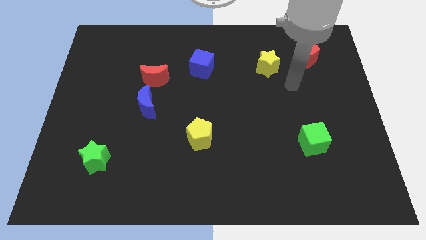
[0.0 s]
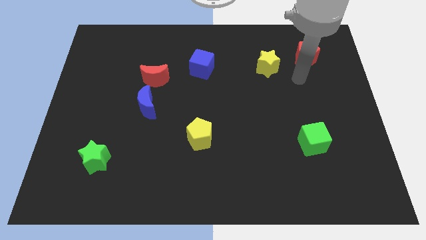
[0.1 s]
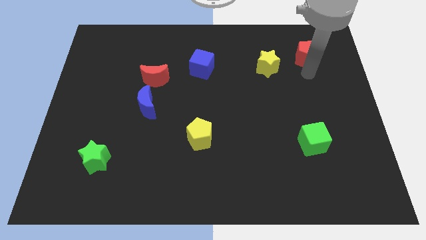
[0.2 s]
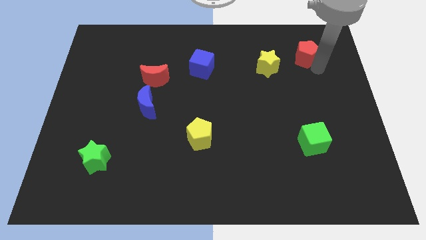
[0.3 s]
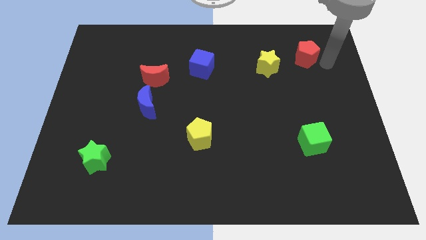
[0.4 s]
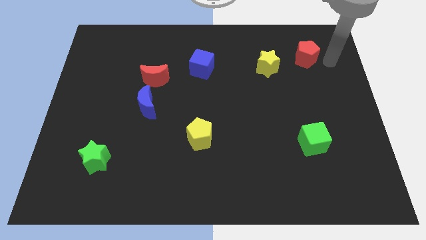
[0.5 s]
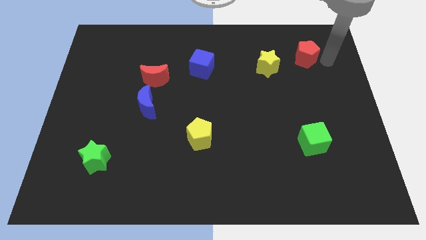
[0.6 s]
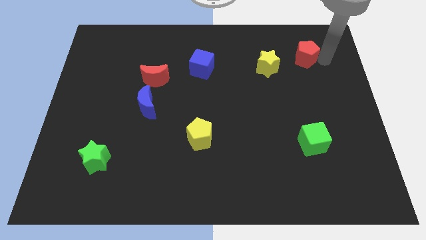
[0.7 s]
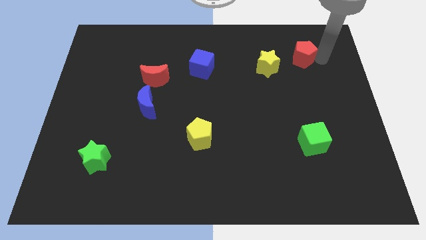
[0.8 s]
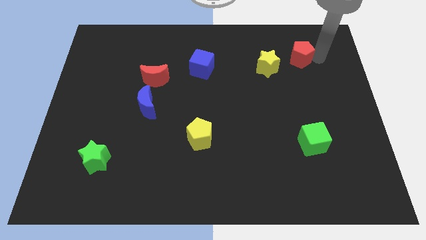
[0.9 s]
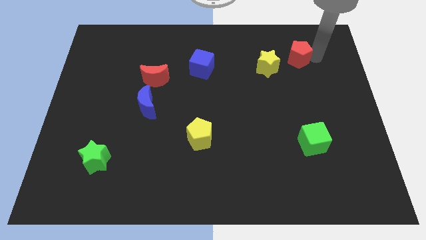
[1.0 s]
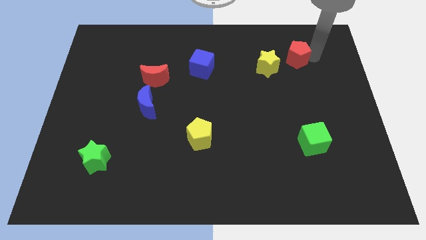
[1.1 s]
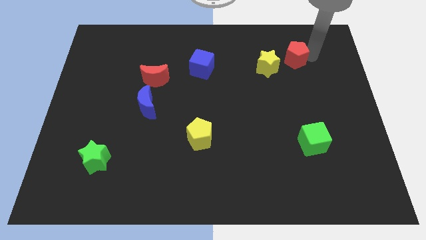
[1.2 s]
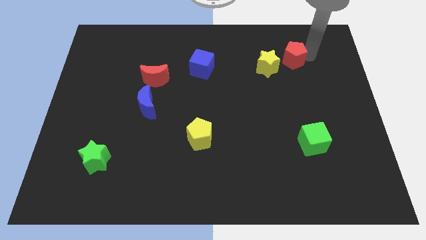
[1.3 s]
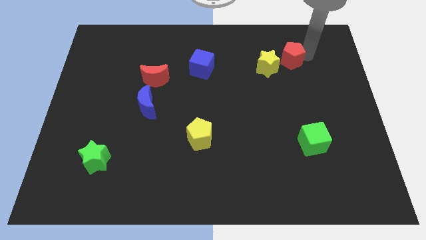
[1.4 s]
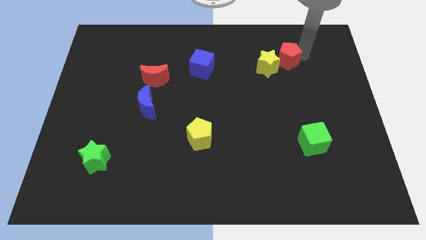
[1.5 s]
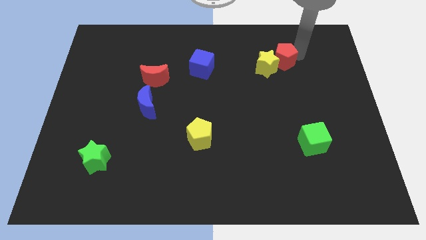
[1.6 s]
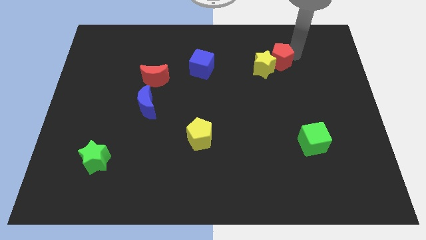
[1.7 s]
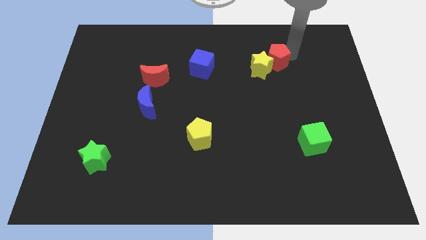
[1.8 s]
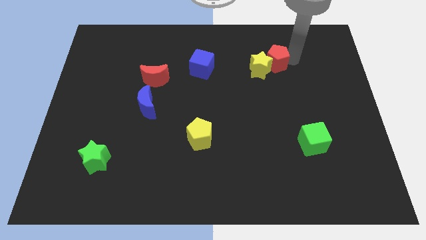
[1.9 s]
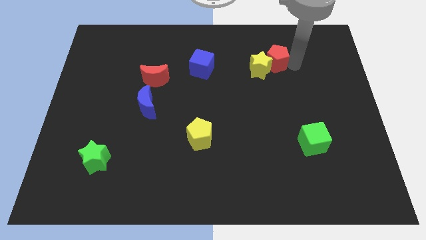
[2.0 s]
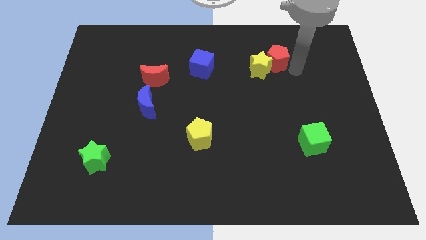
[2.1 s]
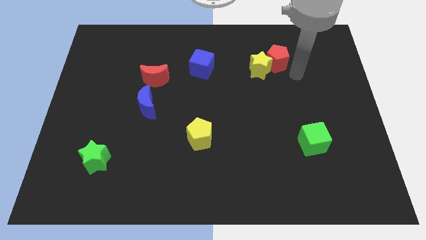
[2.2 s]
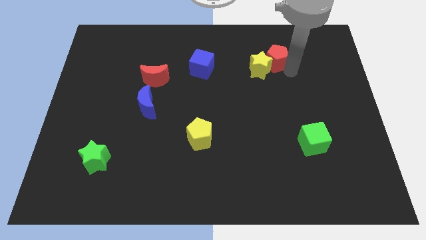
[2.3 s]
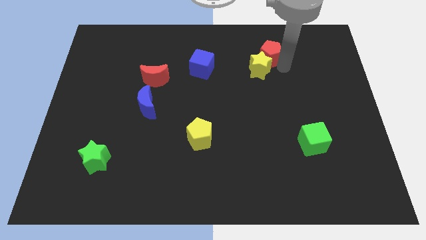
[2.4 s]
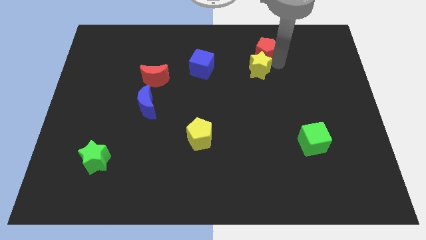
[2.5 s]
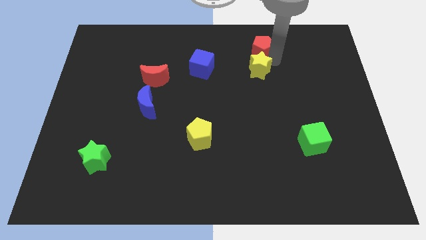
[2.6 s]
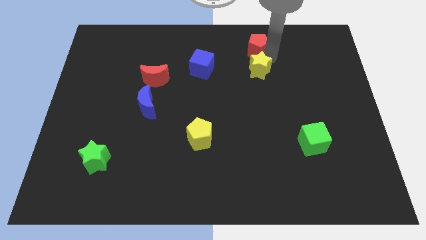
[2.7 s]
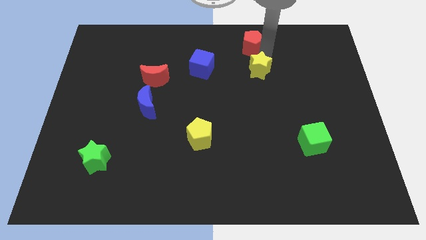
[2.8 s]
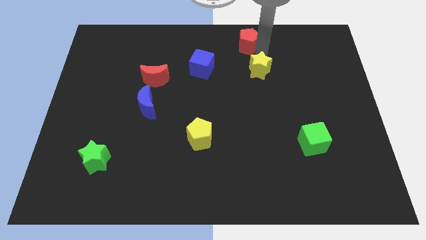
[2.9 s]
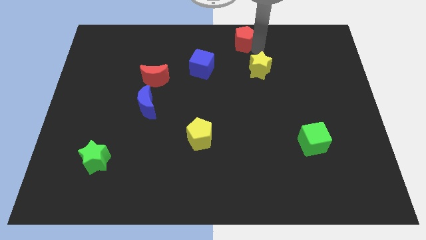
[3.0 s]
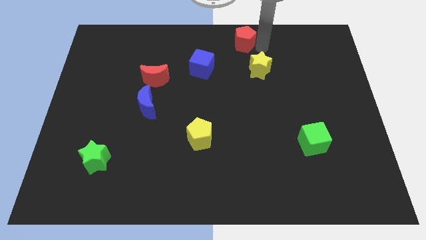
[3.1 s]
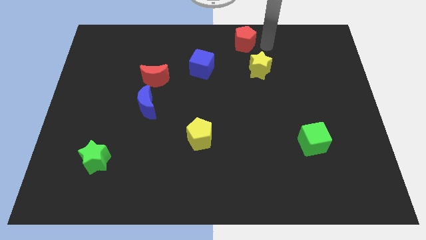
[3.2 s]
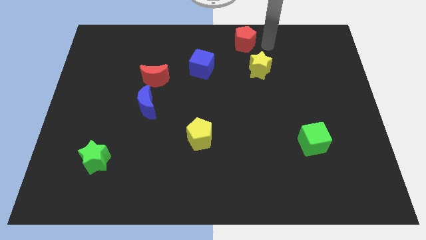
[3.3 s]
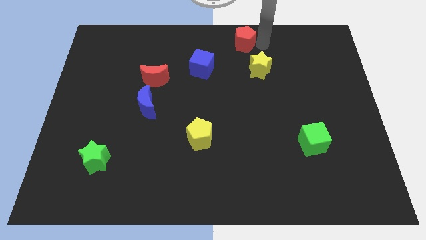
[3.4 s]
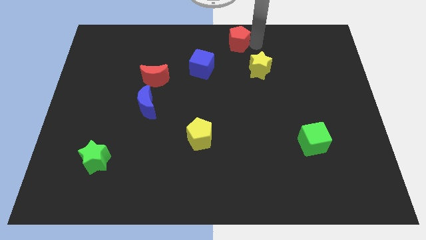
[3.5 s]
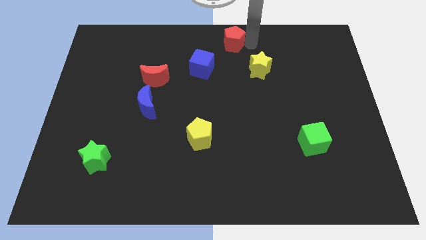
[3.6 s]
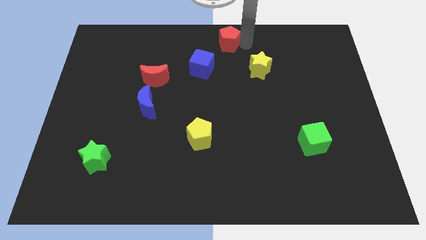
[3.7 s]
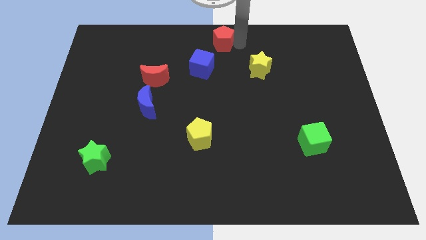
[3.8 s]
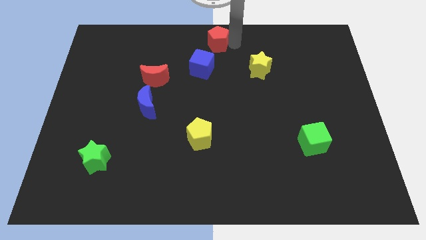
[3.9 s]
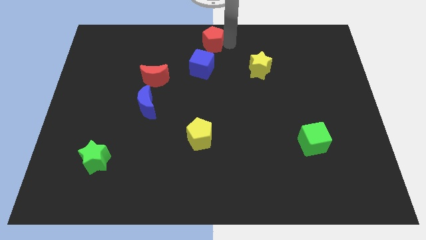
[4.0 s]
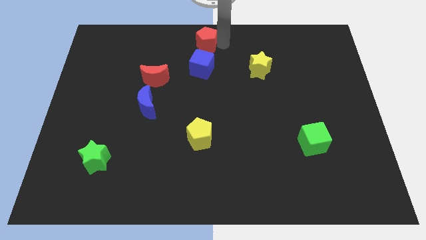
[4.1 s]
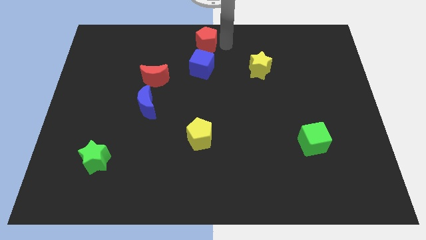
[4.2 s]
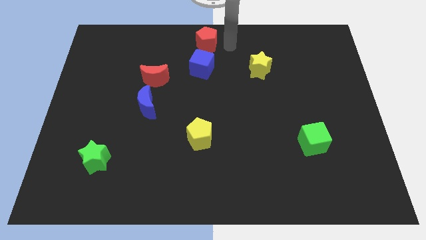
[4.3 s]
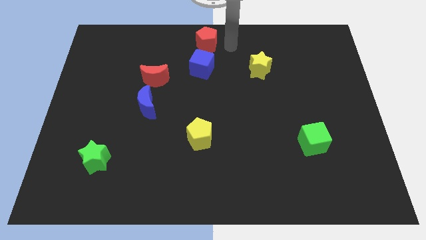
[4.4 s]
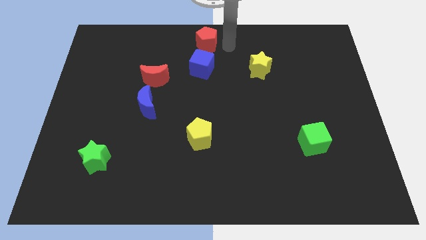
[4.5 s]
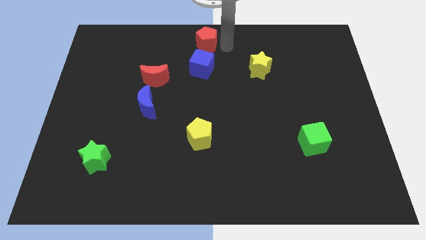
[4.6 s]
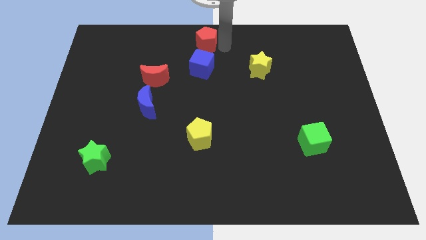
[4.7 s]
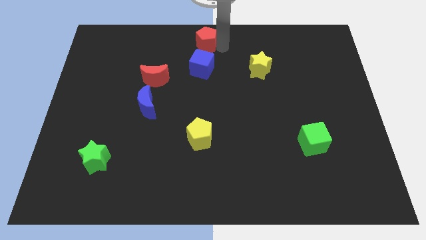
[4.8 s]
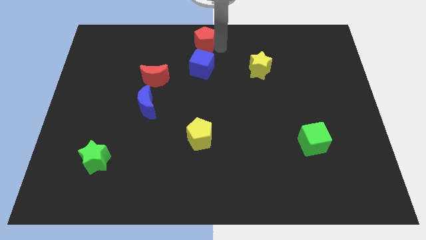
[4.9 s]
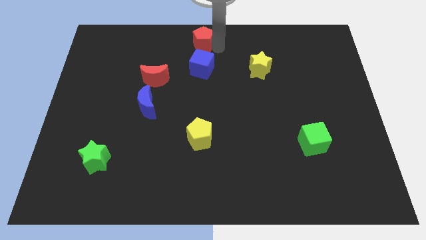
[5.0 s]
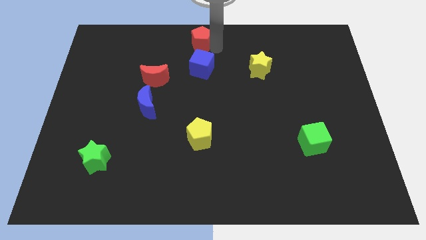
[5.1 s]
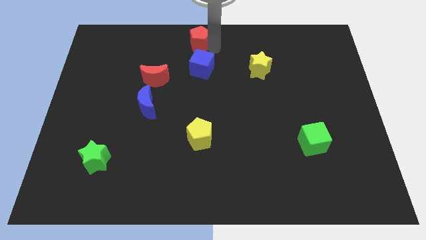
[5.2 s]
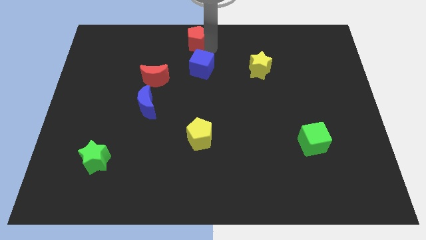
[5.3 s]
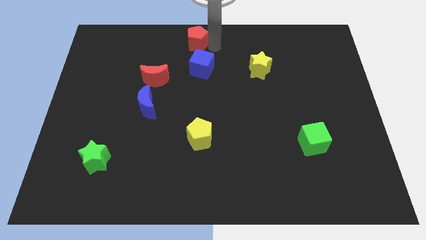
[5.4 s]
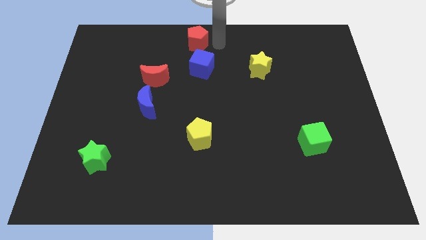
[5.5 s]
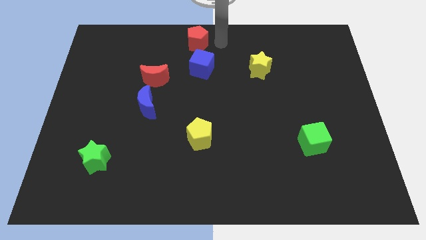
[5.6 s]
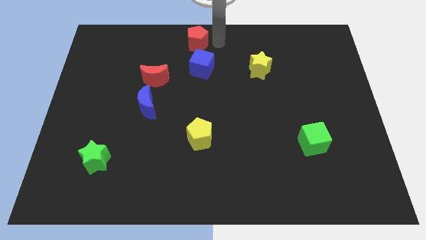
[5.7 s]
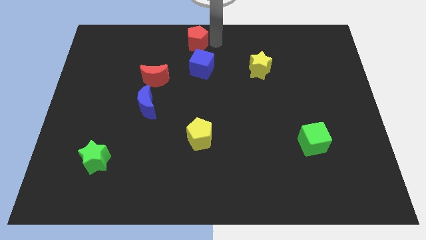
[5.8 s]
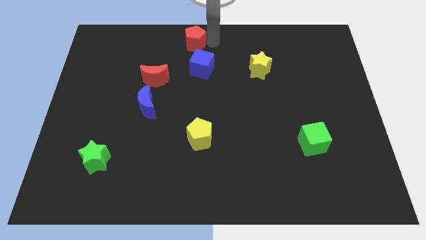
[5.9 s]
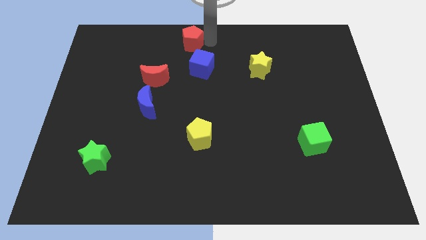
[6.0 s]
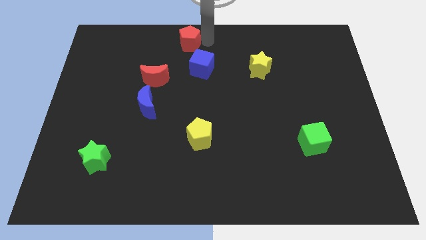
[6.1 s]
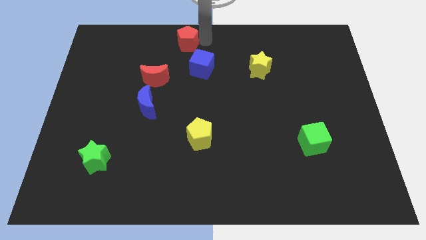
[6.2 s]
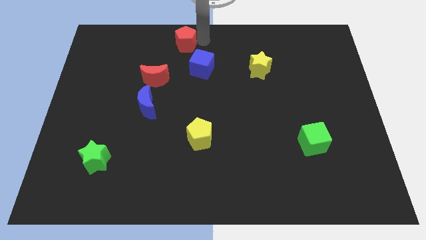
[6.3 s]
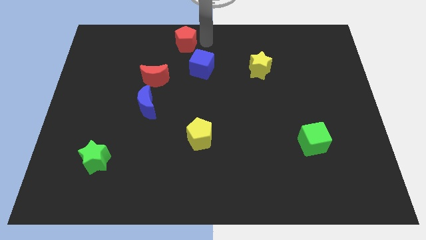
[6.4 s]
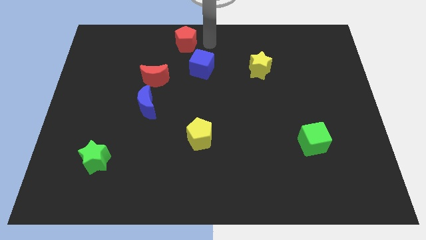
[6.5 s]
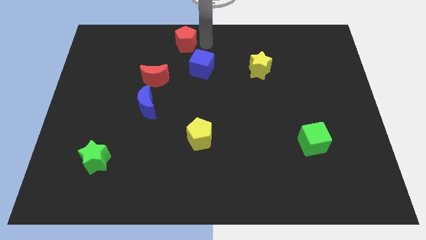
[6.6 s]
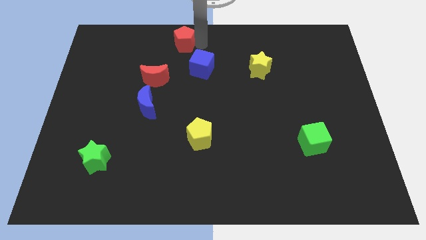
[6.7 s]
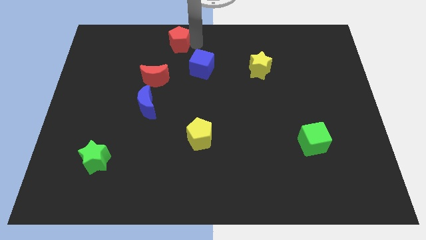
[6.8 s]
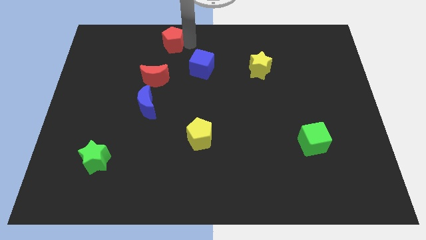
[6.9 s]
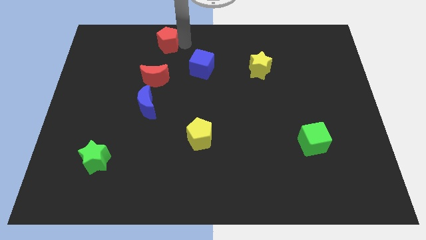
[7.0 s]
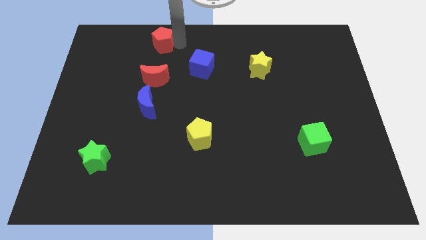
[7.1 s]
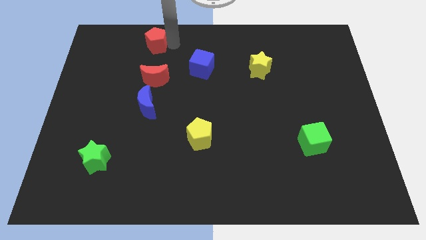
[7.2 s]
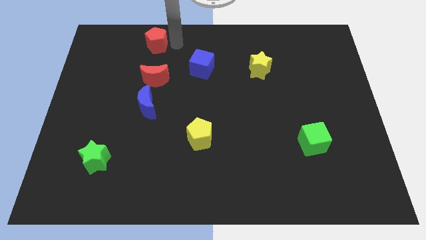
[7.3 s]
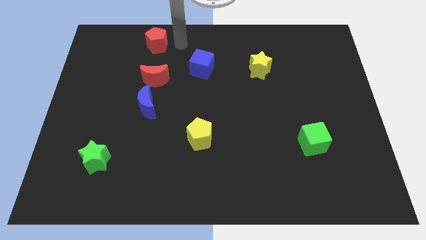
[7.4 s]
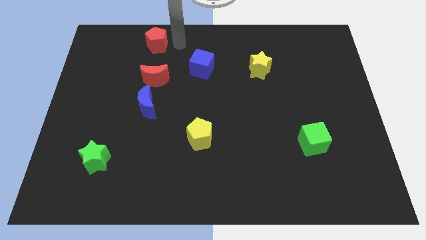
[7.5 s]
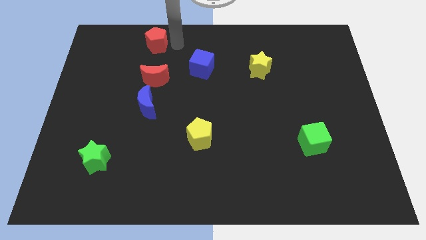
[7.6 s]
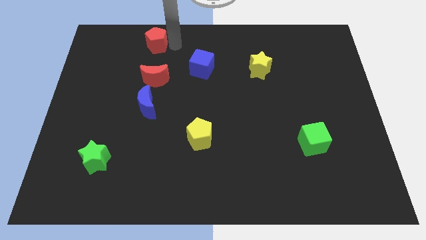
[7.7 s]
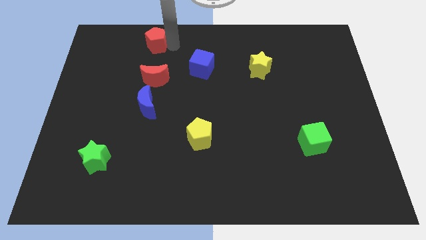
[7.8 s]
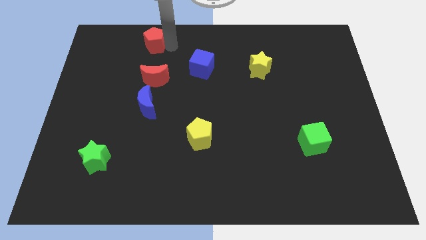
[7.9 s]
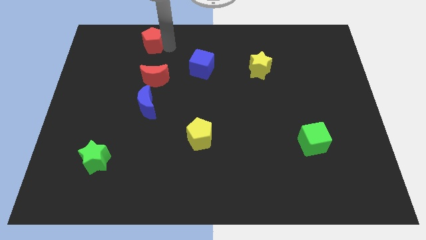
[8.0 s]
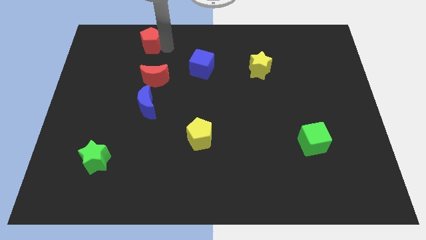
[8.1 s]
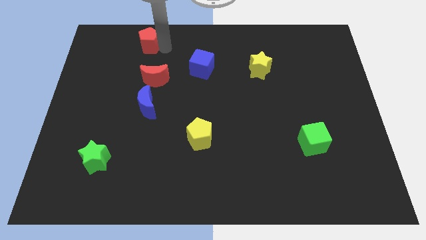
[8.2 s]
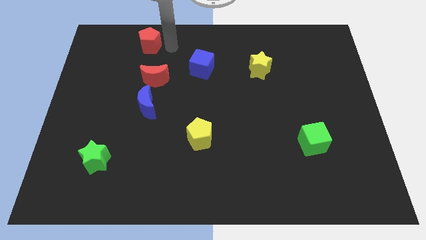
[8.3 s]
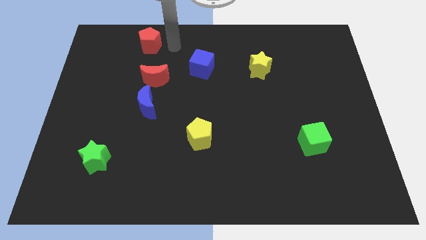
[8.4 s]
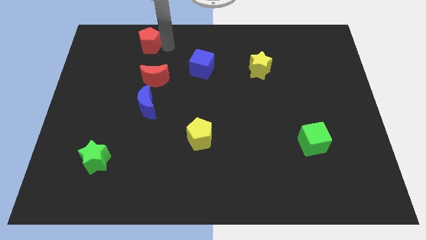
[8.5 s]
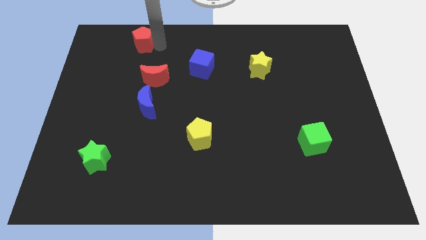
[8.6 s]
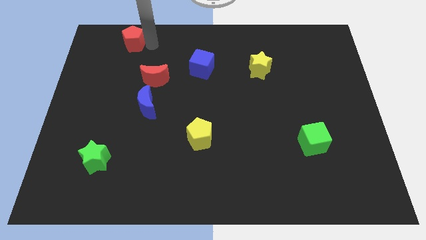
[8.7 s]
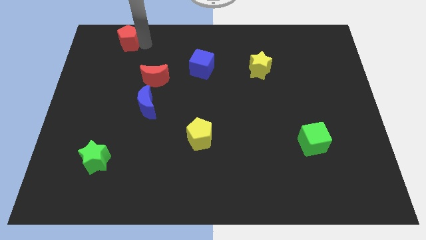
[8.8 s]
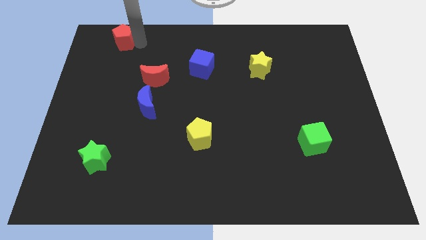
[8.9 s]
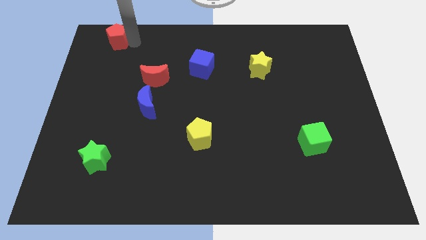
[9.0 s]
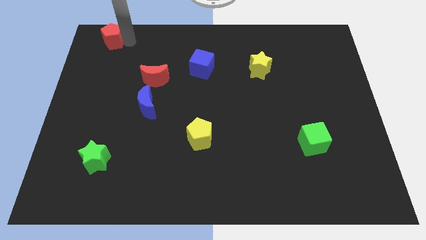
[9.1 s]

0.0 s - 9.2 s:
move the red pentagon to the top left corner
